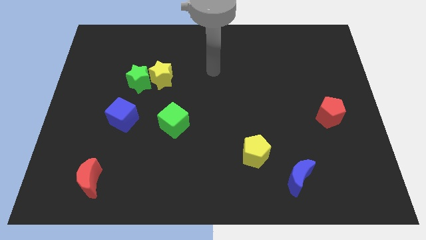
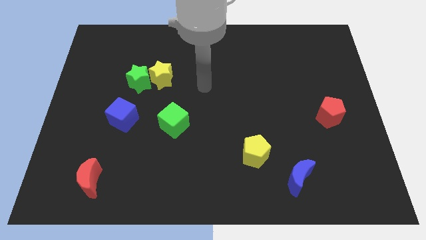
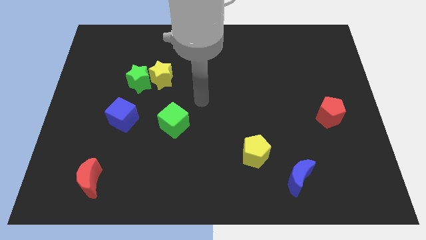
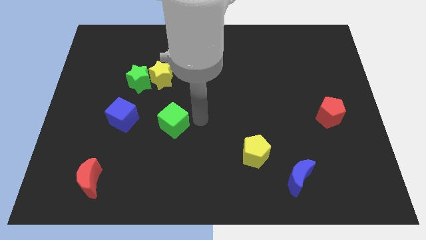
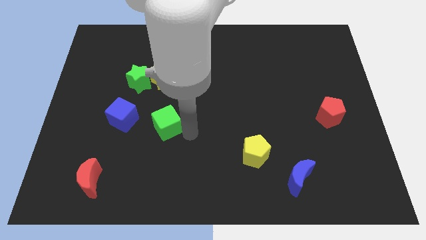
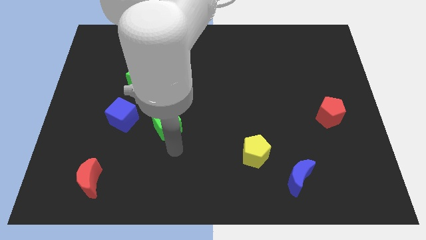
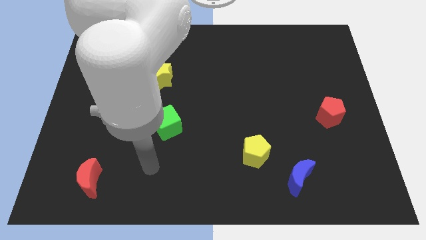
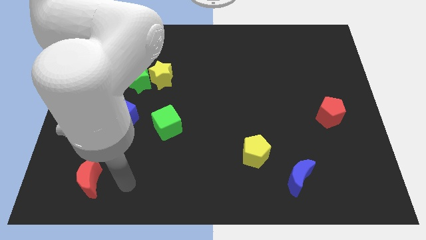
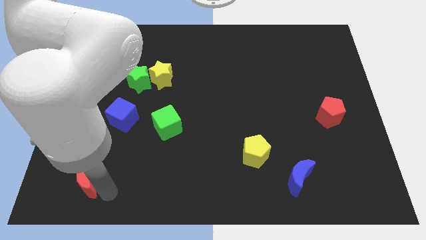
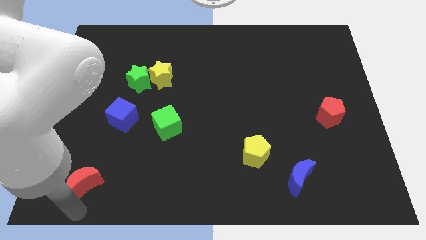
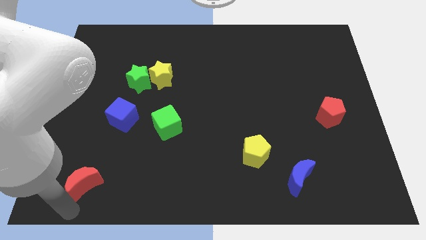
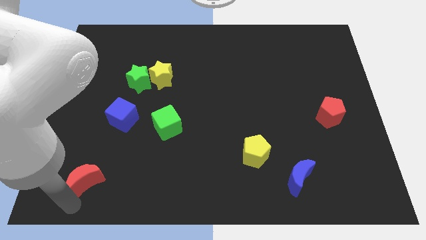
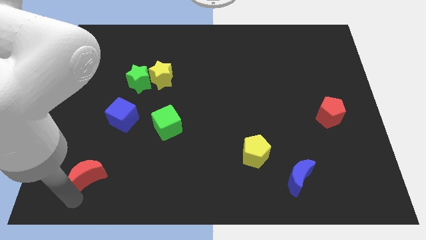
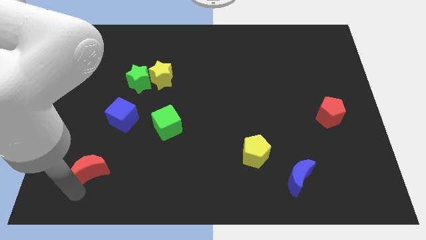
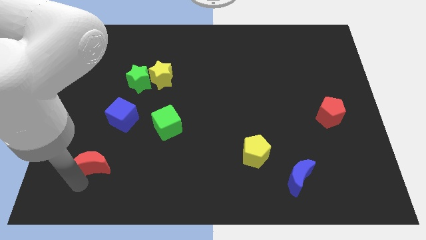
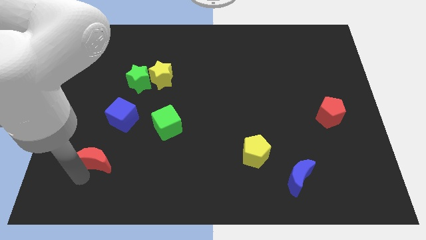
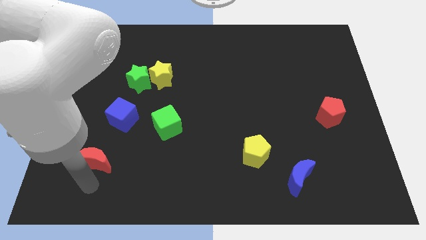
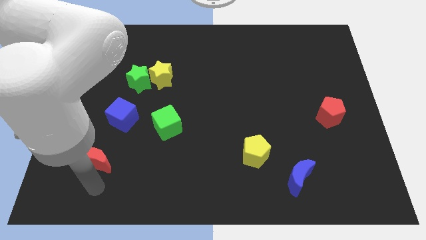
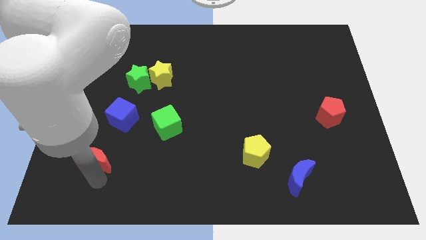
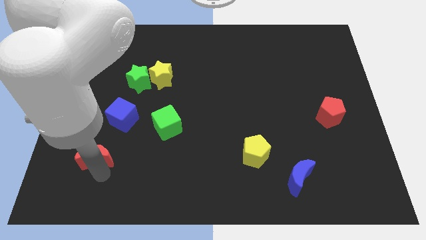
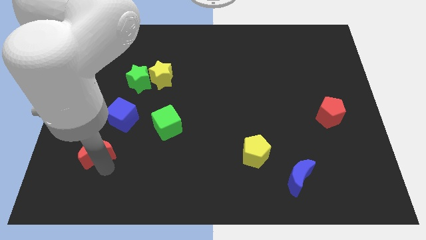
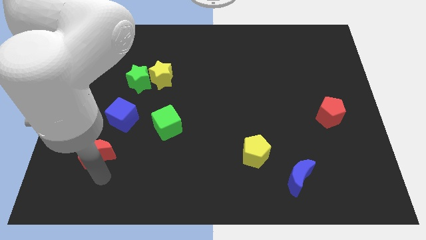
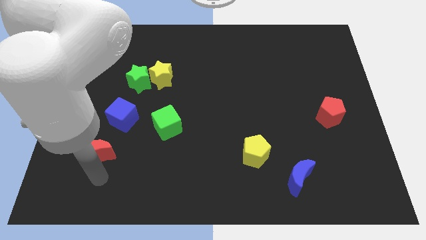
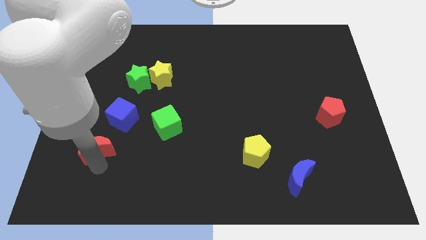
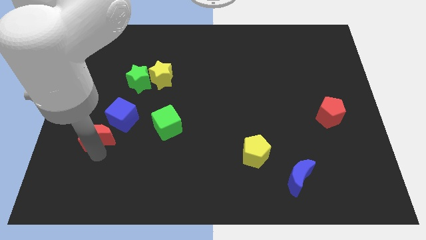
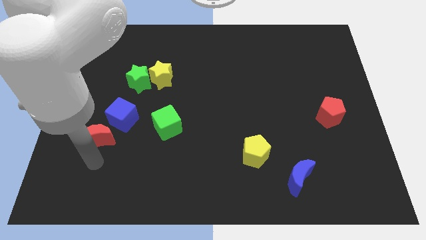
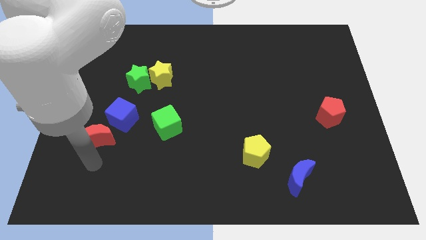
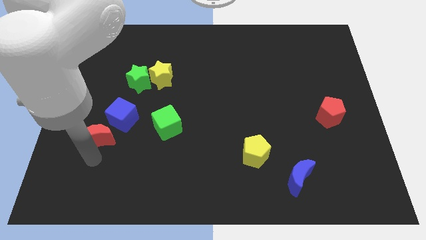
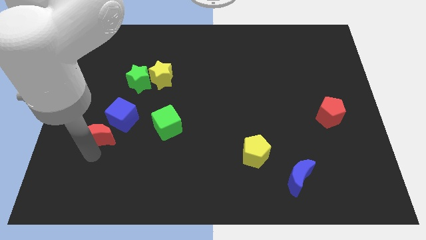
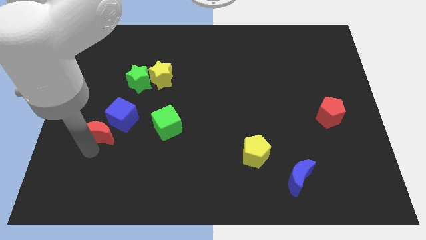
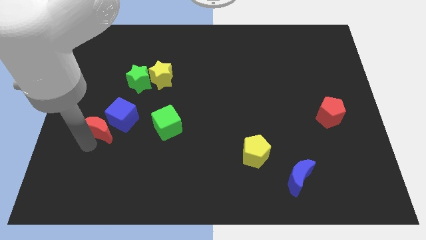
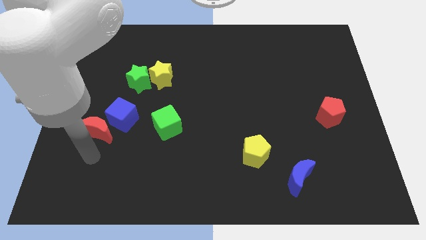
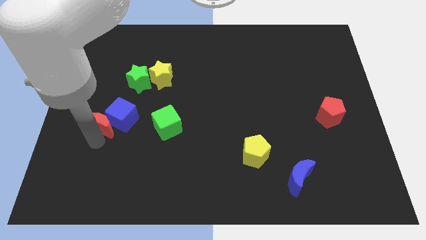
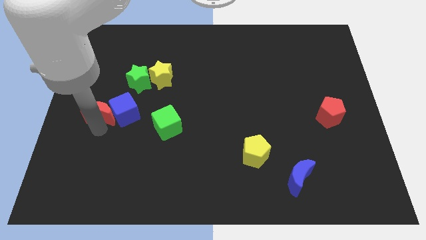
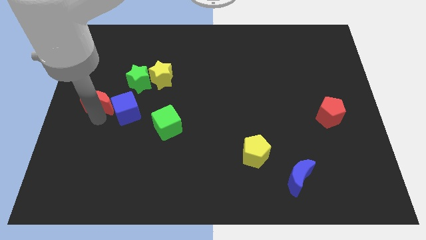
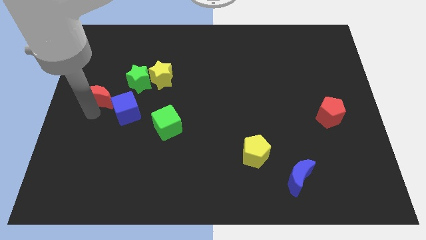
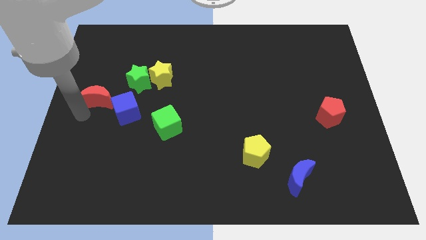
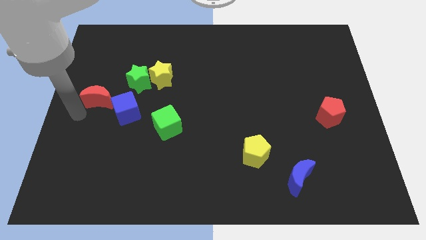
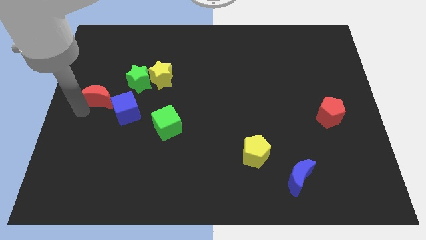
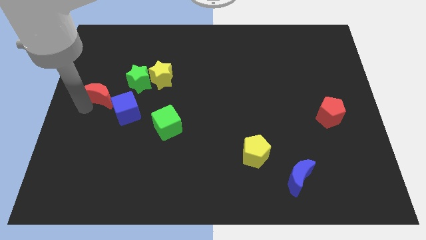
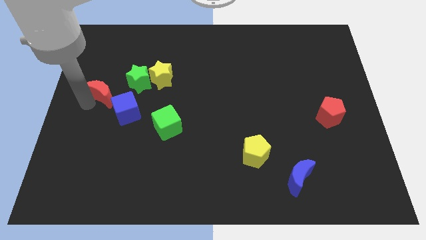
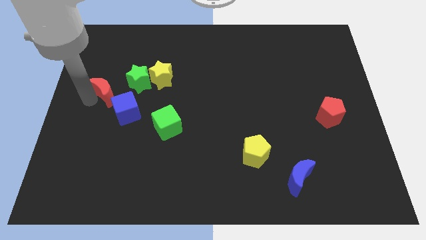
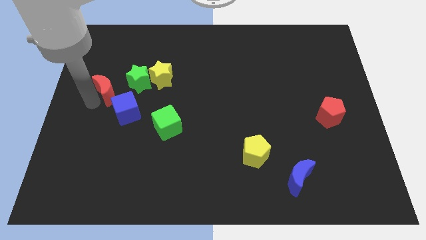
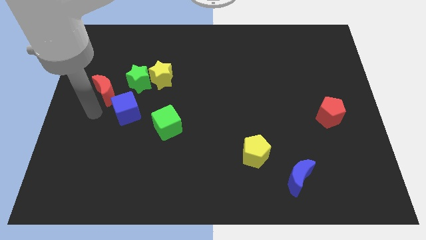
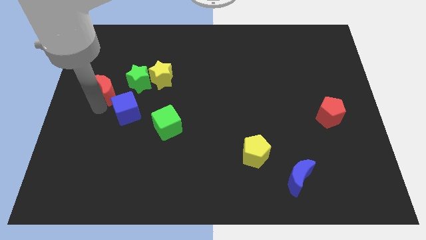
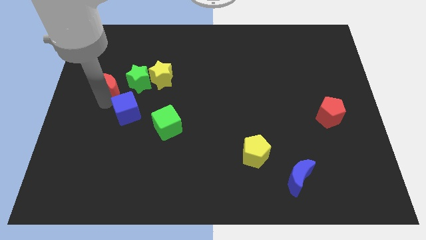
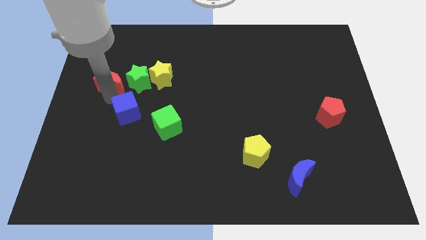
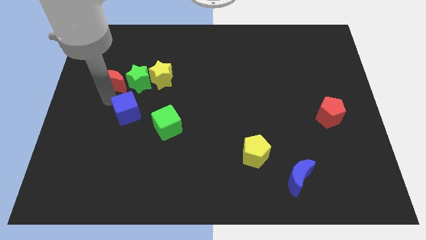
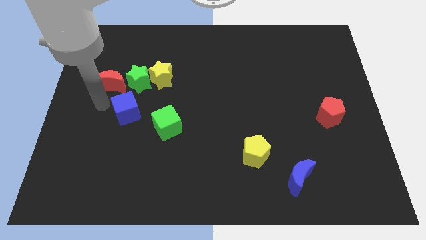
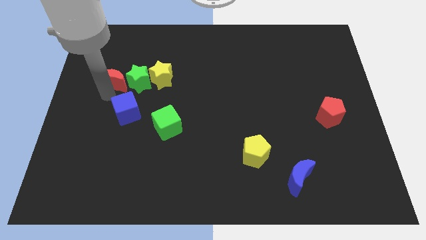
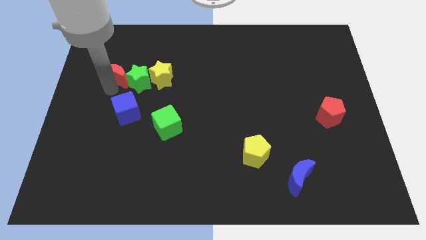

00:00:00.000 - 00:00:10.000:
push the red moon to the top left side of the green star

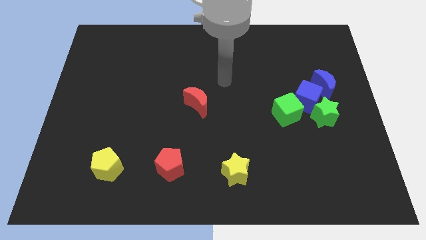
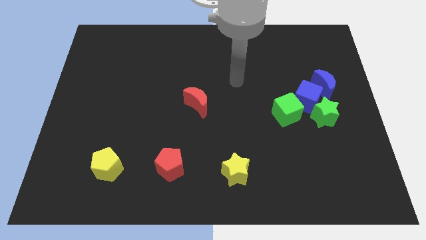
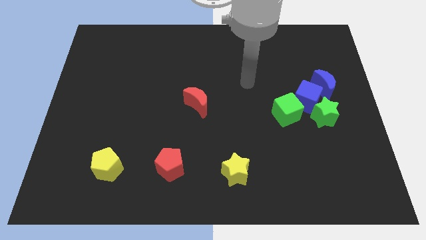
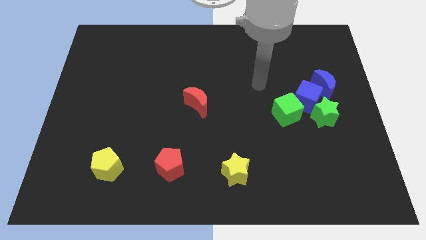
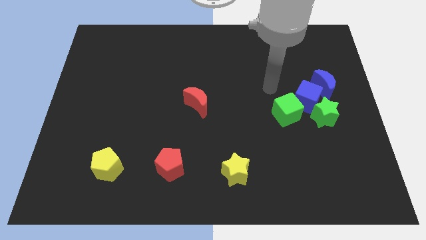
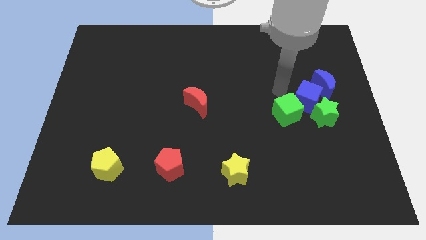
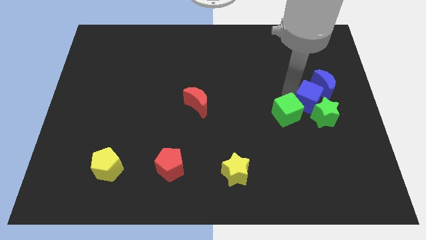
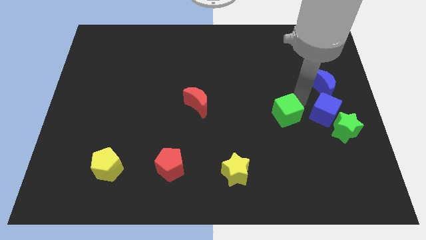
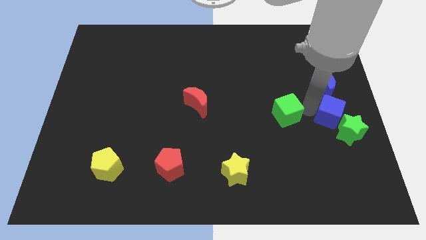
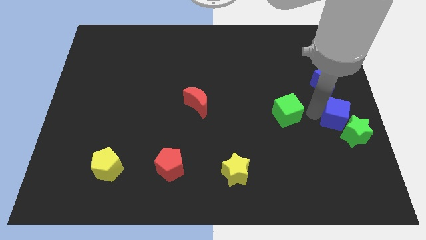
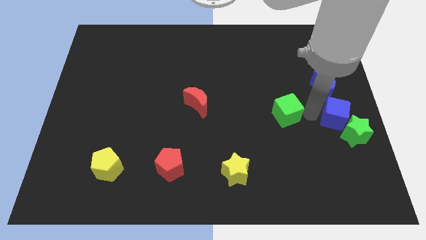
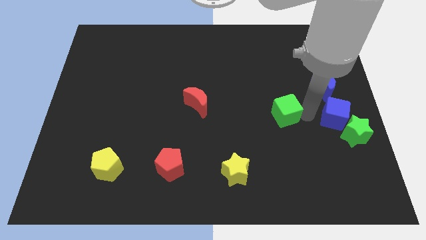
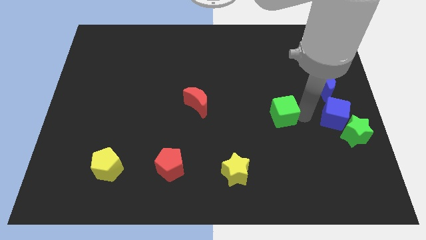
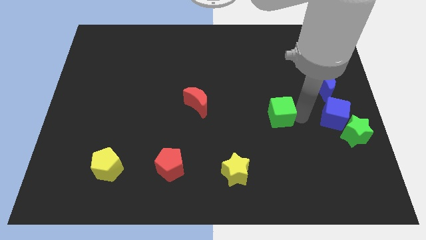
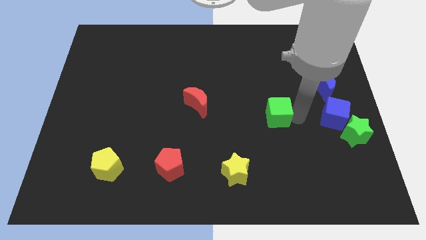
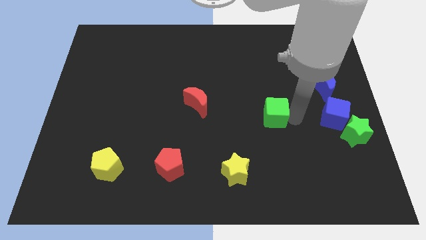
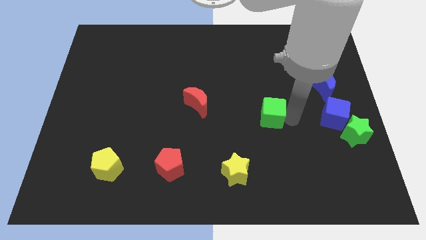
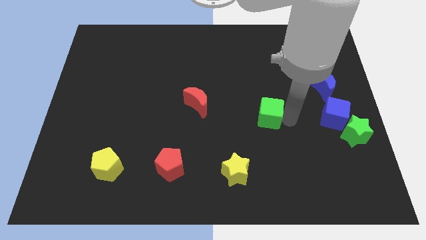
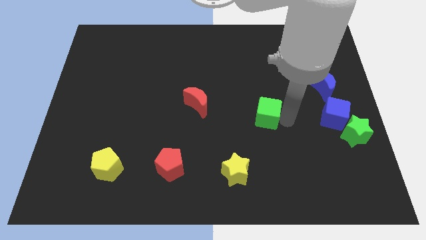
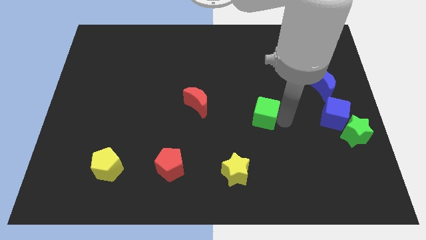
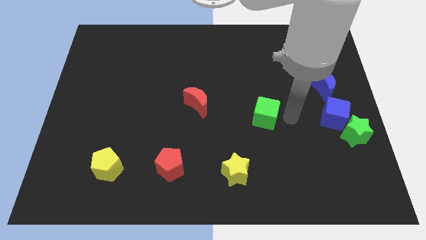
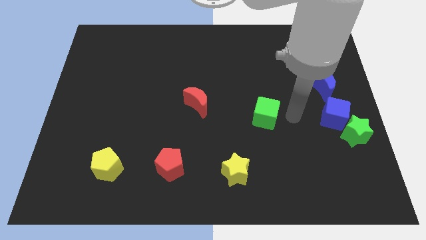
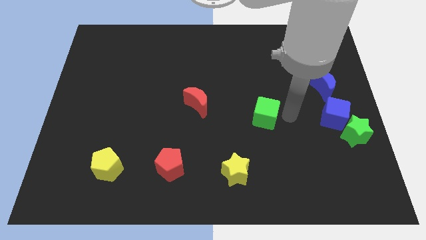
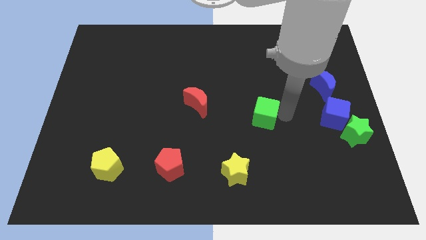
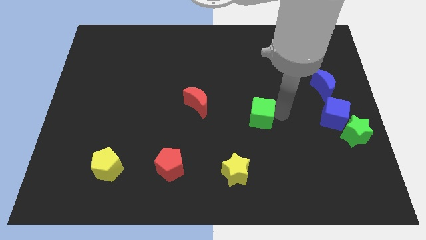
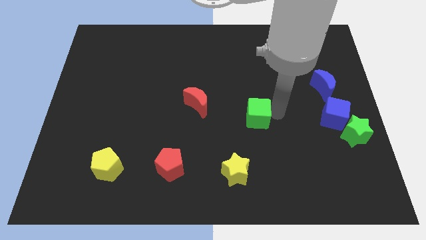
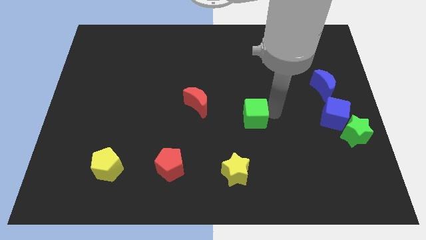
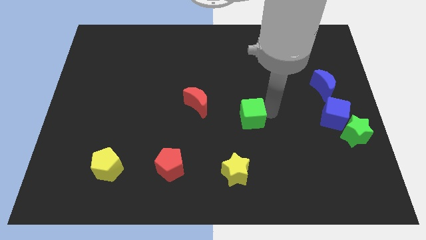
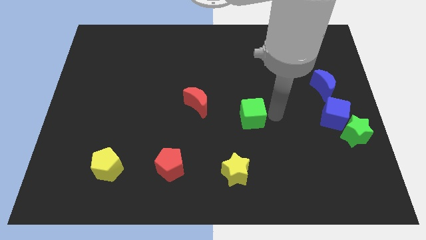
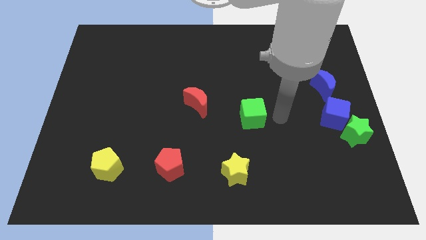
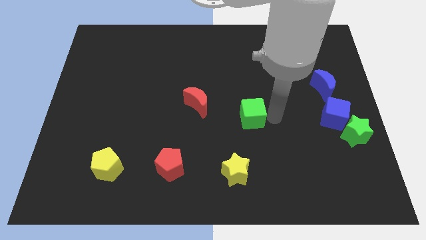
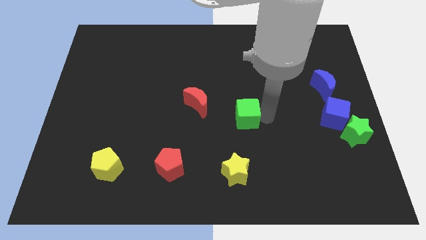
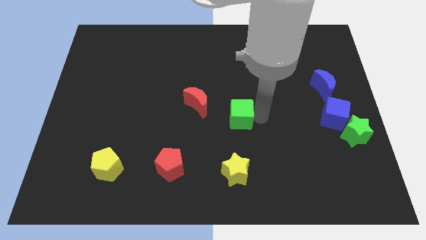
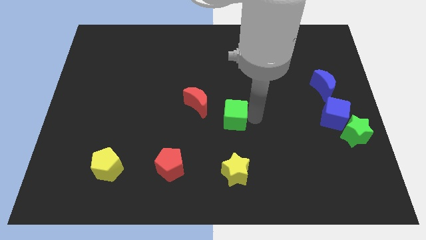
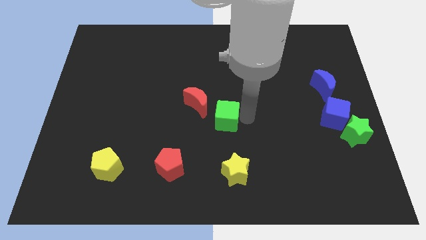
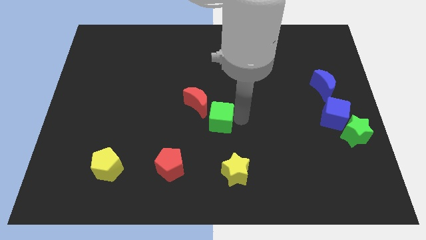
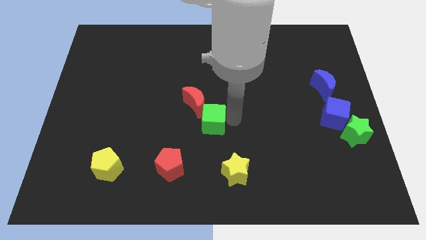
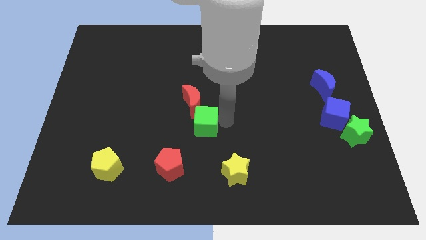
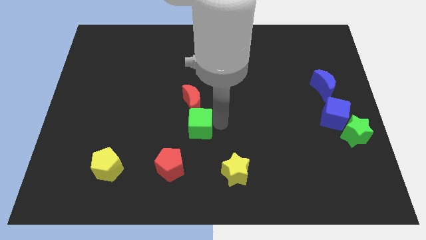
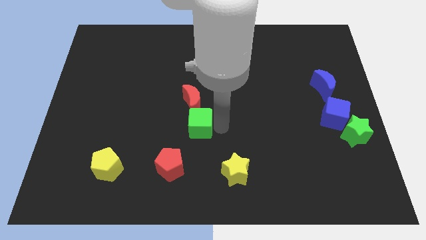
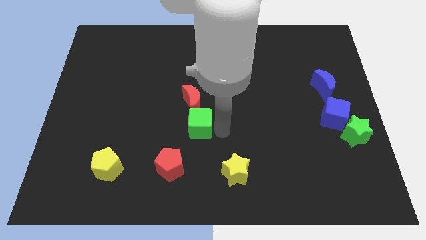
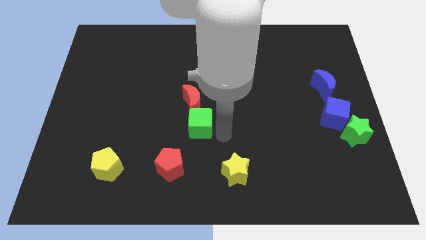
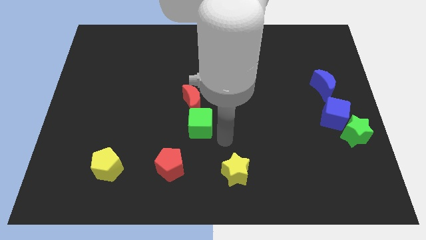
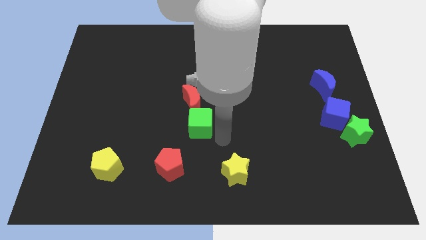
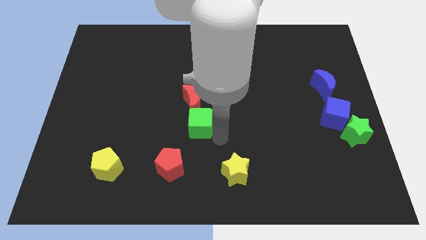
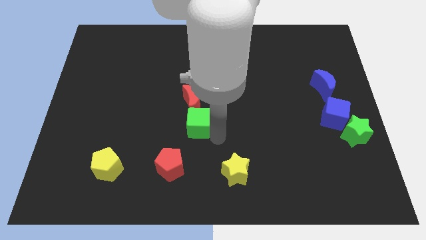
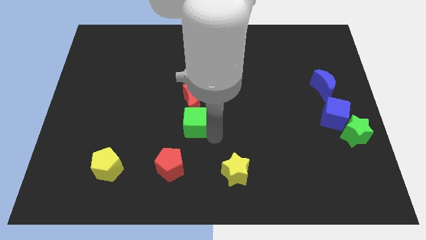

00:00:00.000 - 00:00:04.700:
slide the green cube to the top side of the red pentagon
